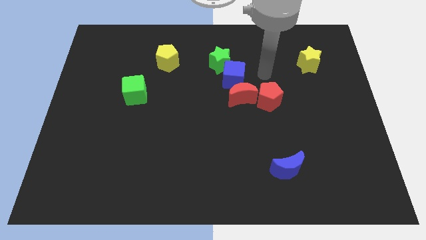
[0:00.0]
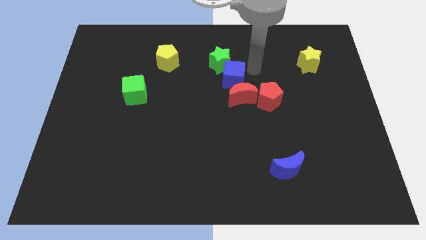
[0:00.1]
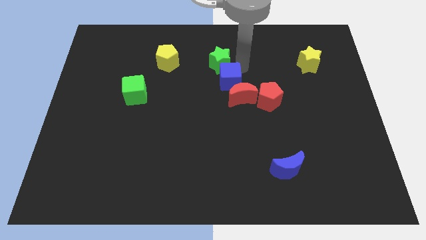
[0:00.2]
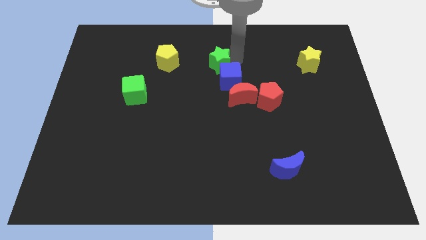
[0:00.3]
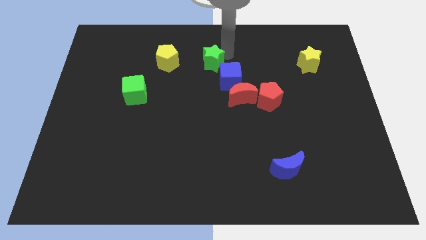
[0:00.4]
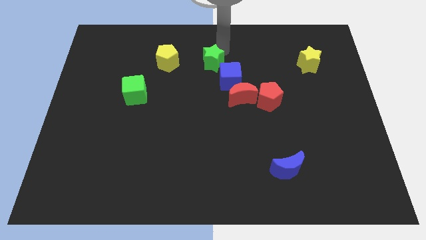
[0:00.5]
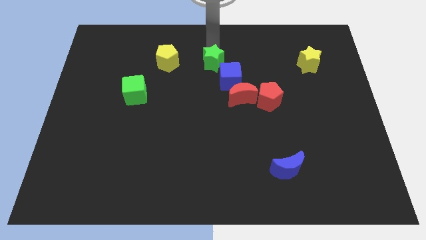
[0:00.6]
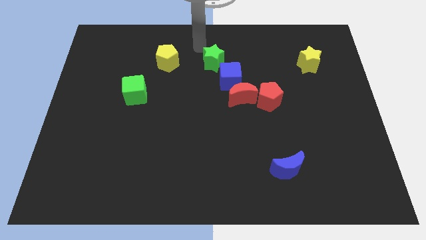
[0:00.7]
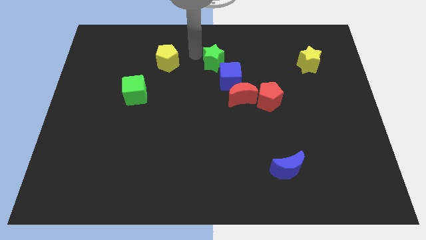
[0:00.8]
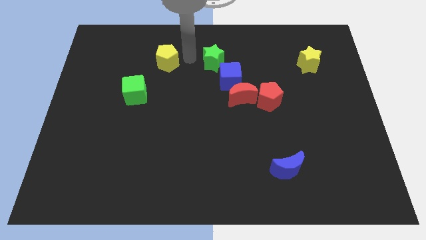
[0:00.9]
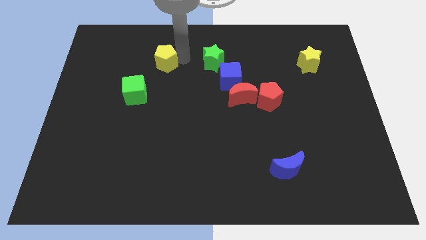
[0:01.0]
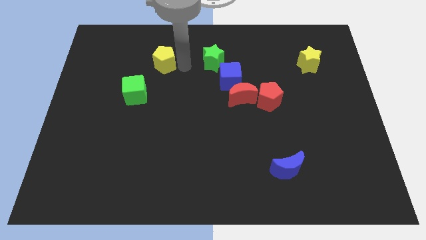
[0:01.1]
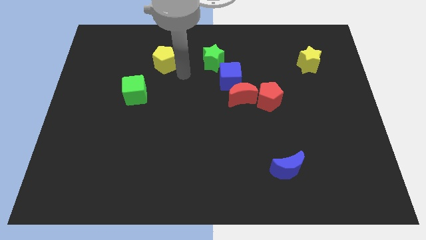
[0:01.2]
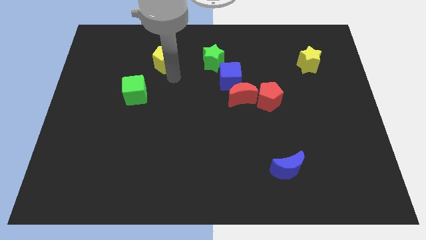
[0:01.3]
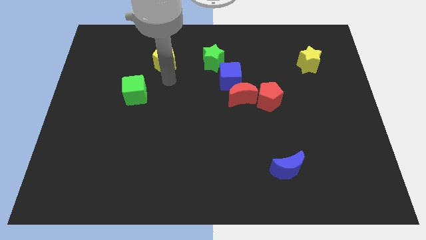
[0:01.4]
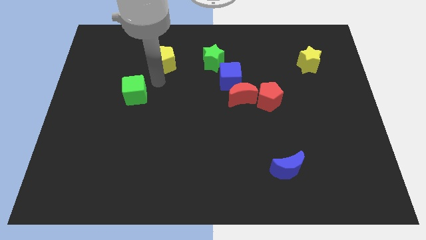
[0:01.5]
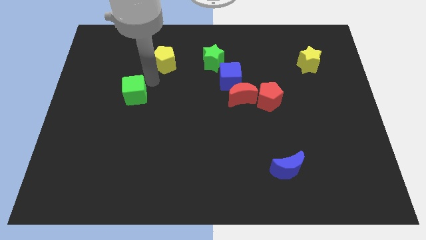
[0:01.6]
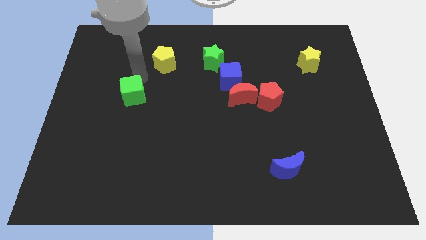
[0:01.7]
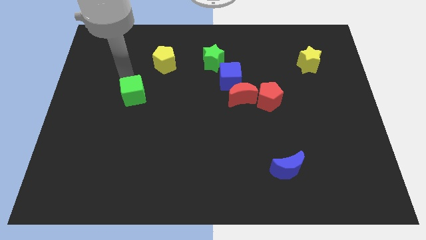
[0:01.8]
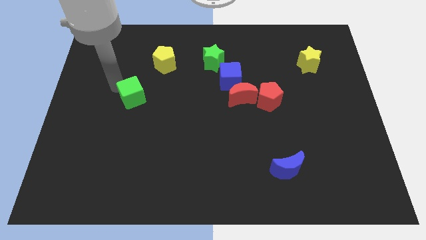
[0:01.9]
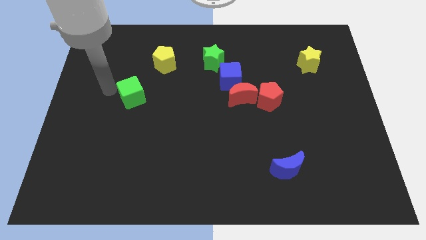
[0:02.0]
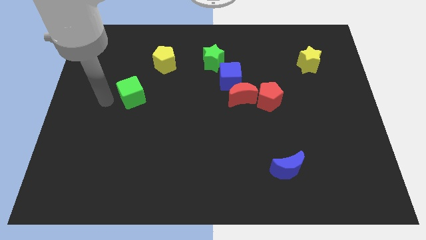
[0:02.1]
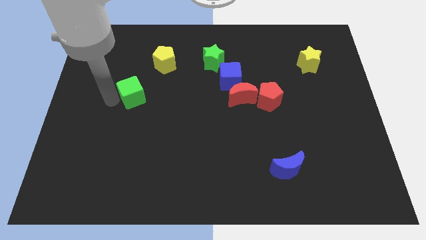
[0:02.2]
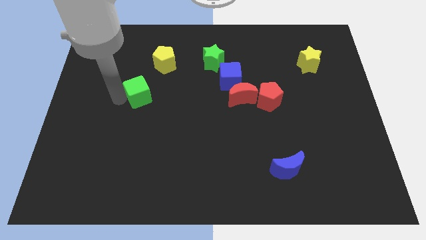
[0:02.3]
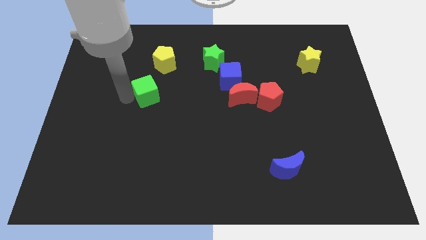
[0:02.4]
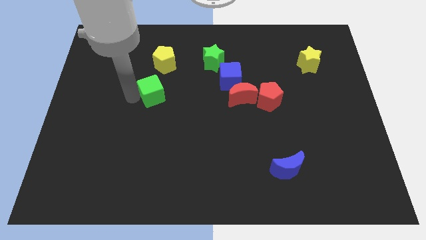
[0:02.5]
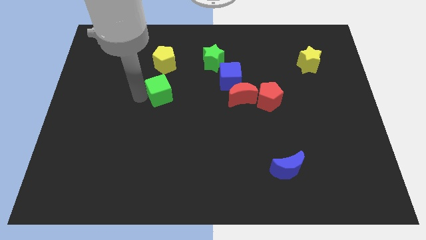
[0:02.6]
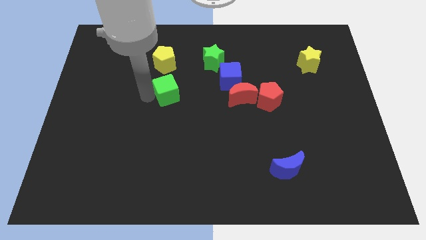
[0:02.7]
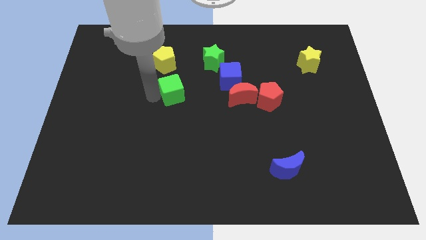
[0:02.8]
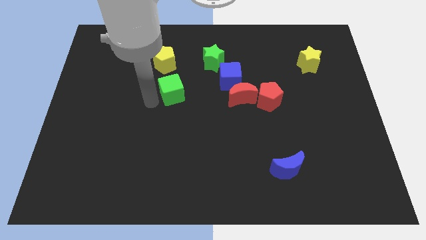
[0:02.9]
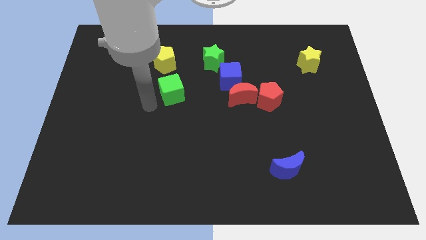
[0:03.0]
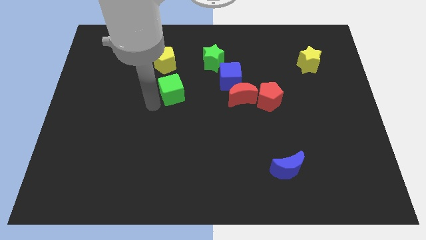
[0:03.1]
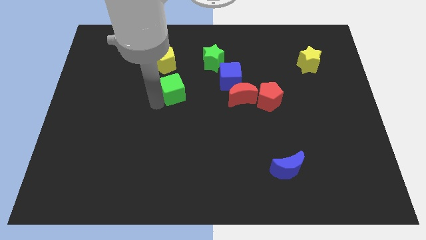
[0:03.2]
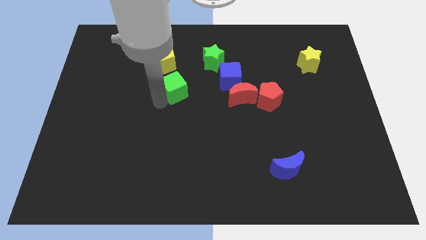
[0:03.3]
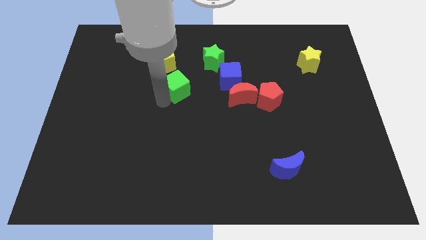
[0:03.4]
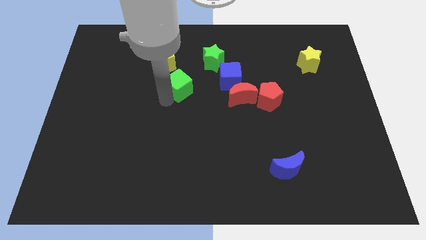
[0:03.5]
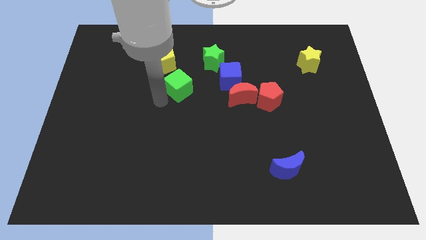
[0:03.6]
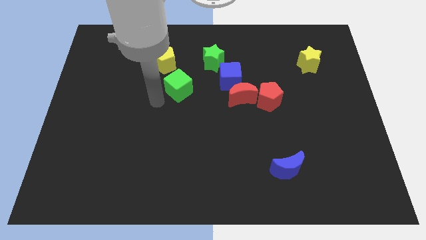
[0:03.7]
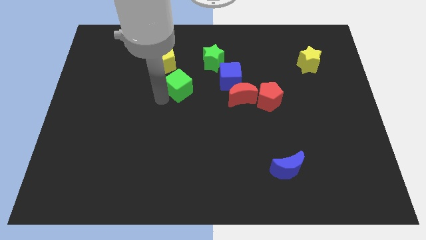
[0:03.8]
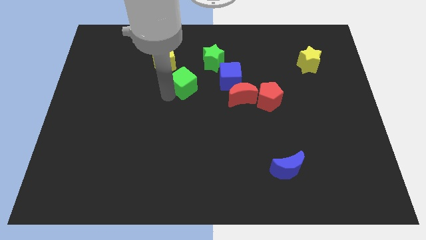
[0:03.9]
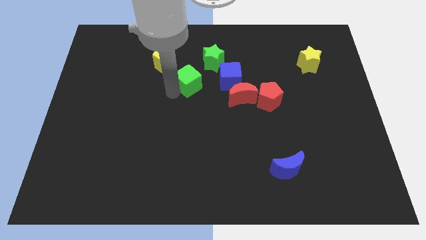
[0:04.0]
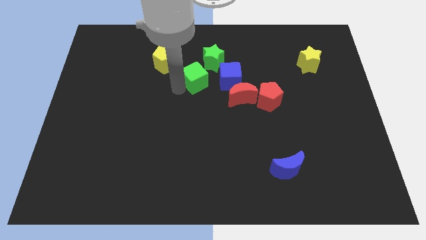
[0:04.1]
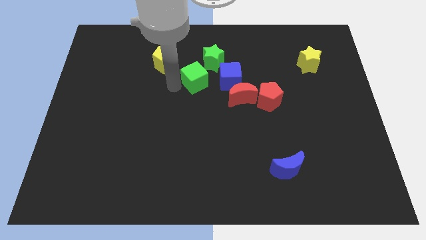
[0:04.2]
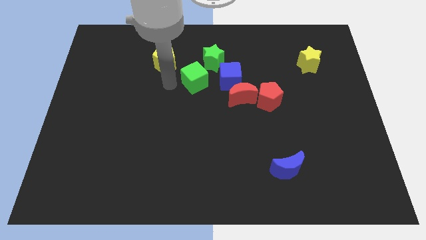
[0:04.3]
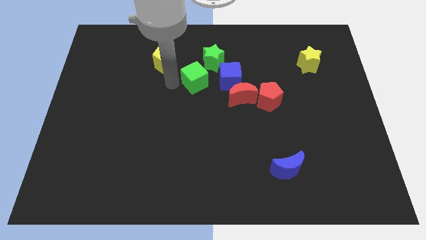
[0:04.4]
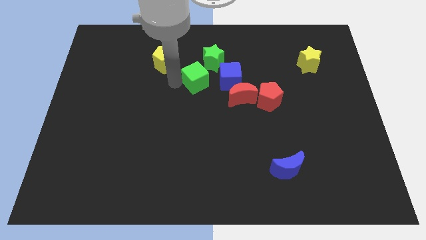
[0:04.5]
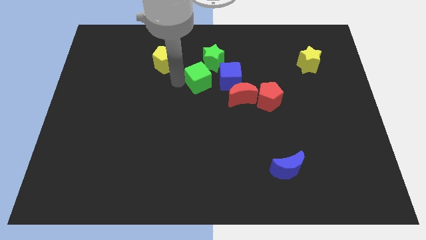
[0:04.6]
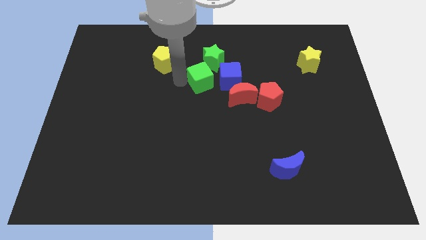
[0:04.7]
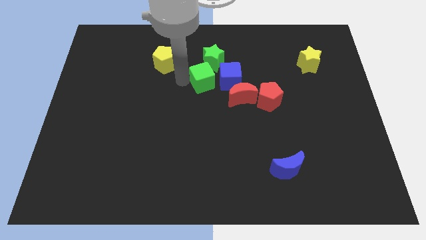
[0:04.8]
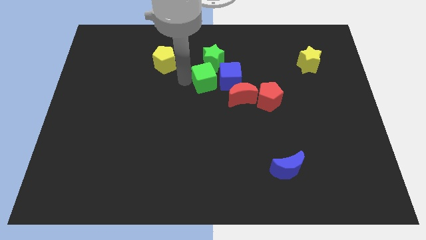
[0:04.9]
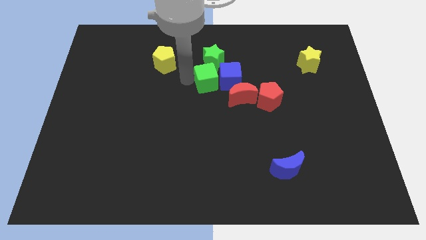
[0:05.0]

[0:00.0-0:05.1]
push the green cube towards the blue cube

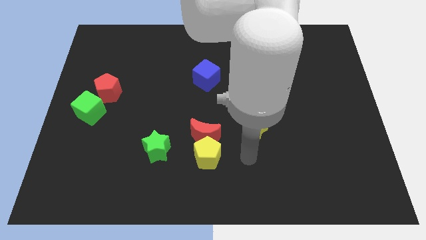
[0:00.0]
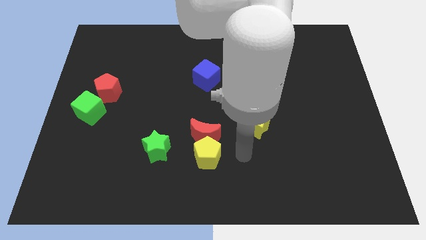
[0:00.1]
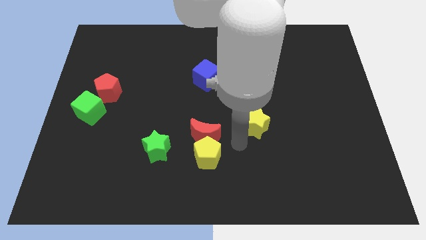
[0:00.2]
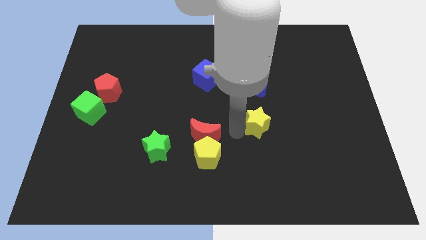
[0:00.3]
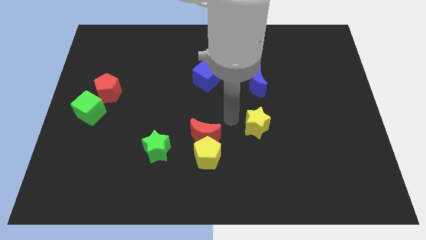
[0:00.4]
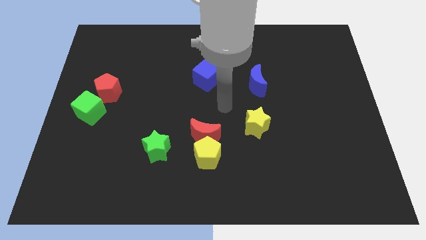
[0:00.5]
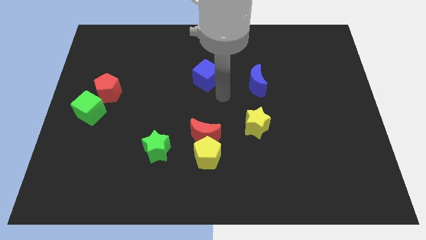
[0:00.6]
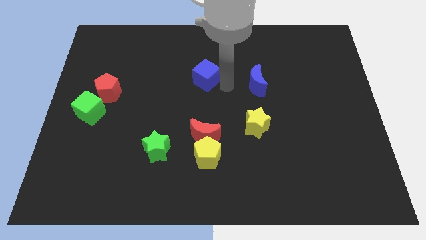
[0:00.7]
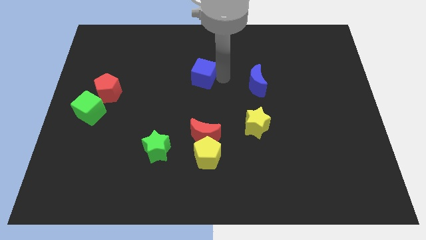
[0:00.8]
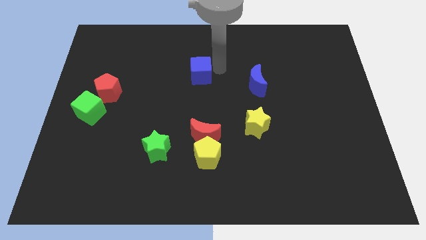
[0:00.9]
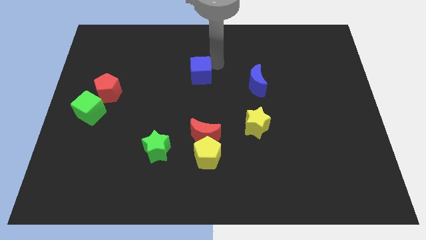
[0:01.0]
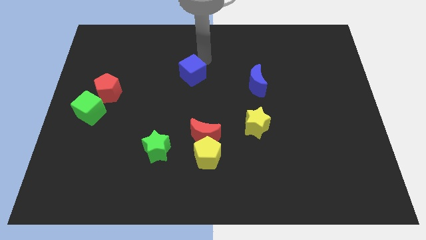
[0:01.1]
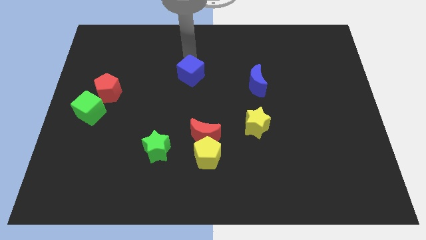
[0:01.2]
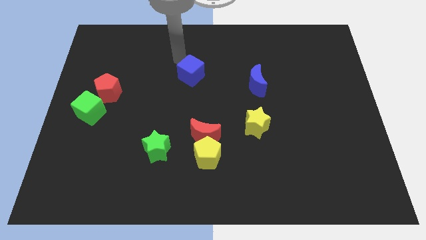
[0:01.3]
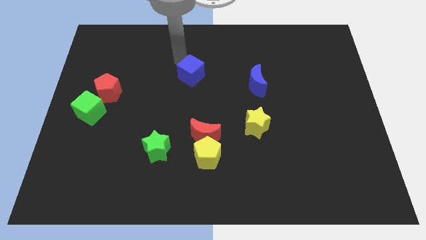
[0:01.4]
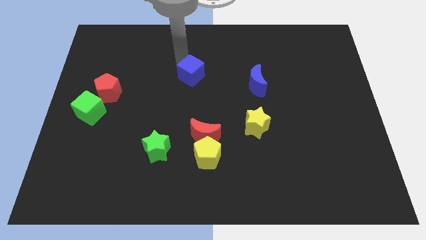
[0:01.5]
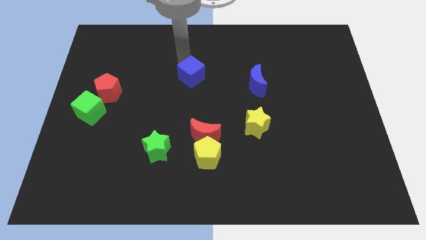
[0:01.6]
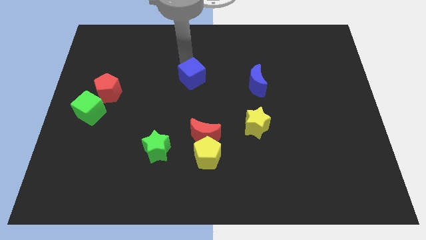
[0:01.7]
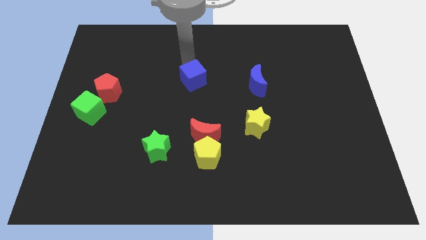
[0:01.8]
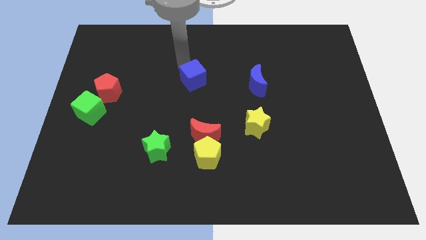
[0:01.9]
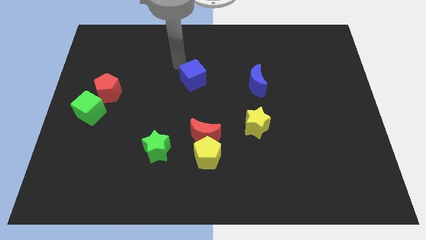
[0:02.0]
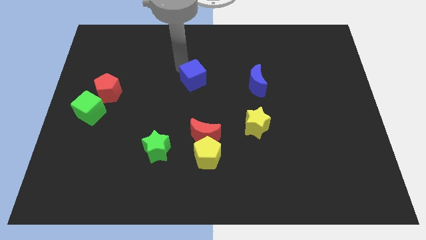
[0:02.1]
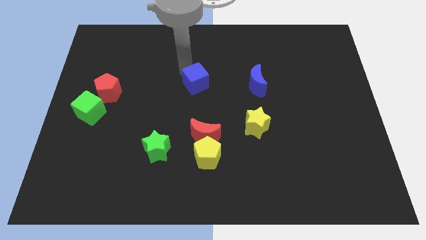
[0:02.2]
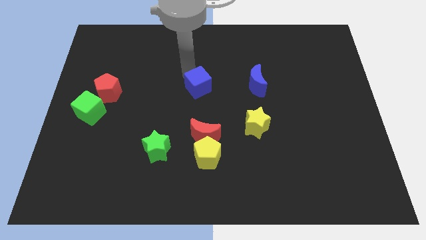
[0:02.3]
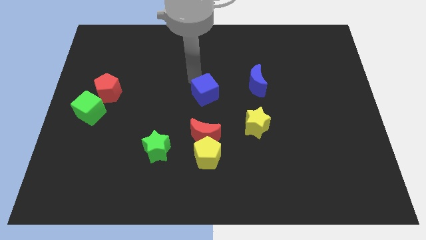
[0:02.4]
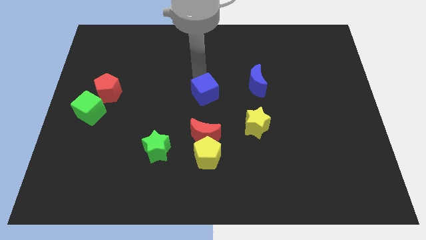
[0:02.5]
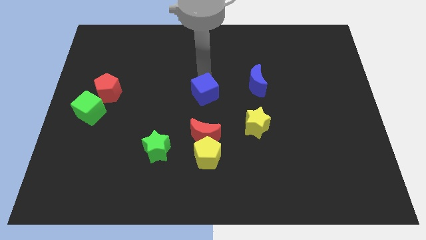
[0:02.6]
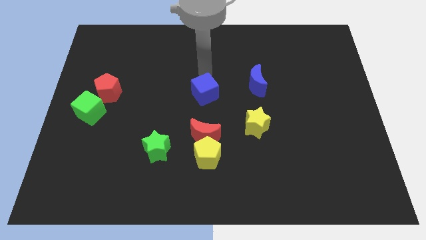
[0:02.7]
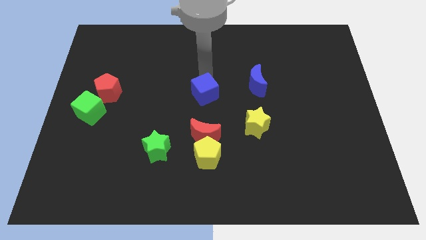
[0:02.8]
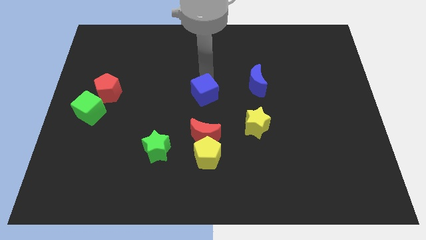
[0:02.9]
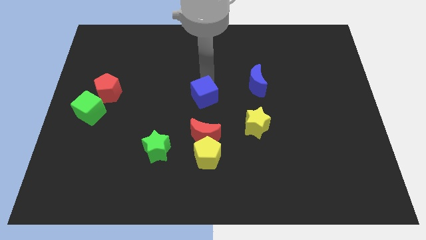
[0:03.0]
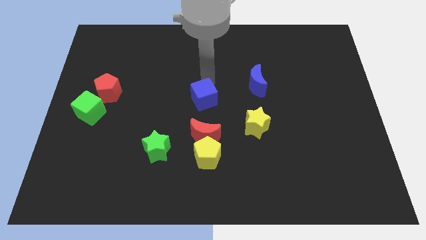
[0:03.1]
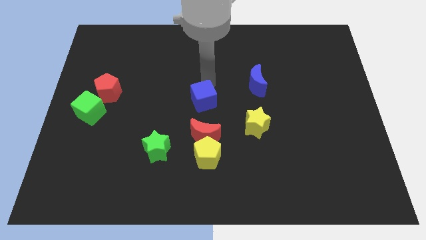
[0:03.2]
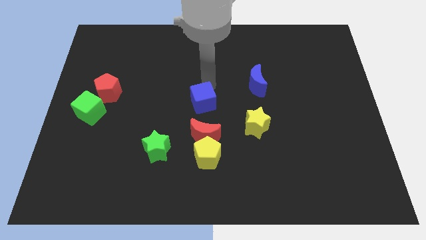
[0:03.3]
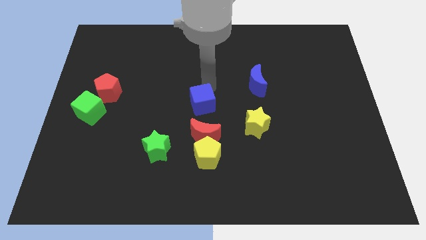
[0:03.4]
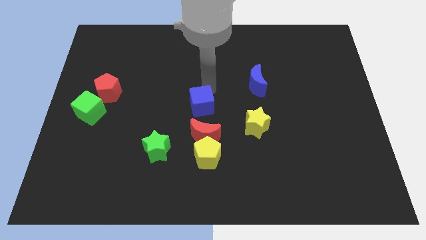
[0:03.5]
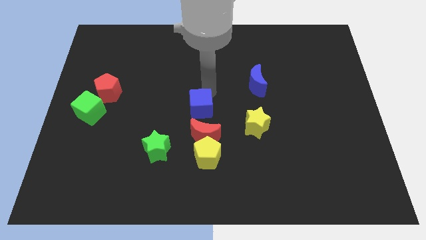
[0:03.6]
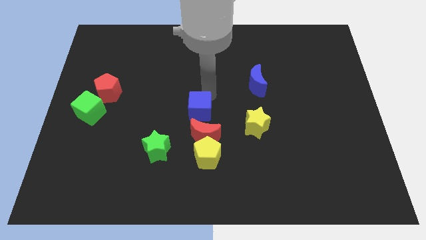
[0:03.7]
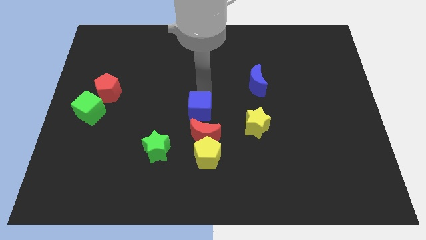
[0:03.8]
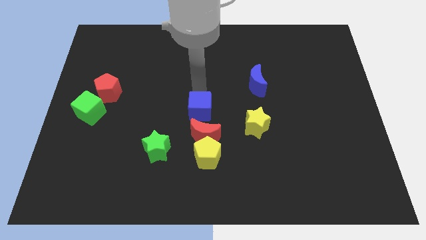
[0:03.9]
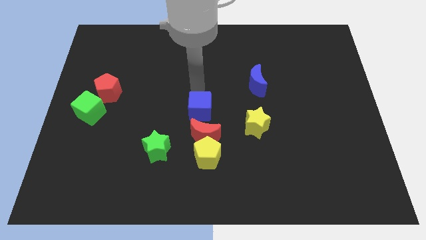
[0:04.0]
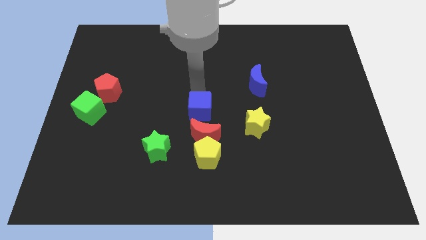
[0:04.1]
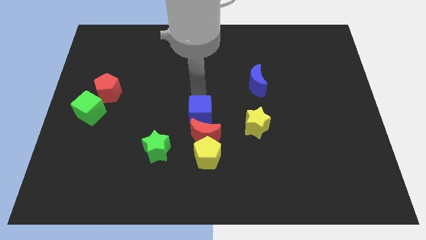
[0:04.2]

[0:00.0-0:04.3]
put the blue cube towards the red moon
